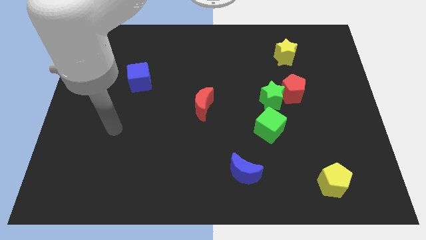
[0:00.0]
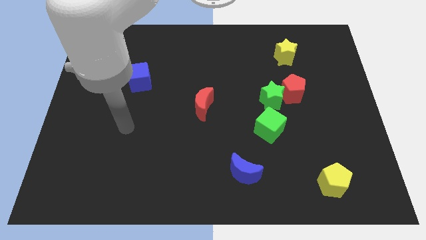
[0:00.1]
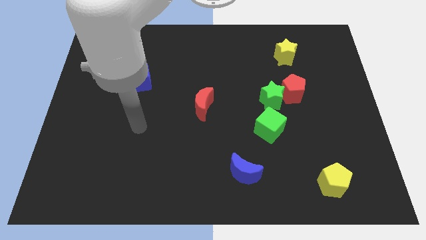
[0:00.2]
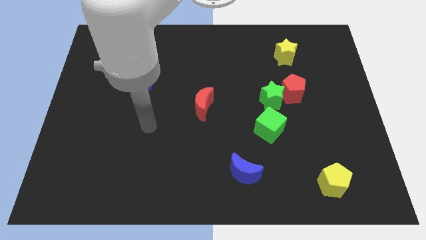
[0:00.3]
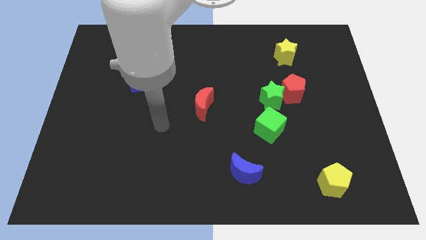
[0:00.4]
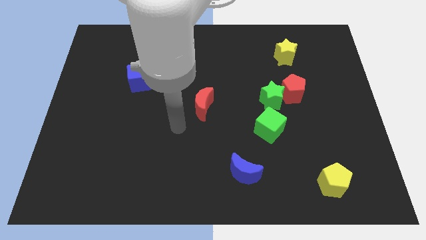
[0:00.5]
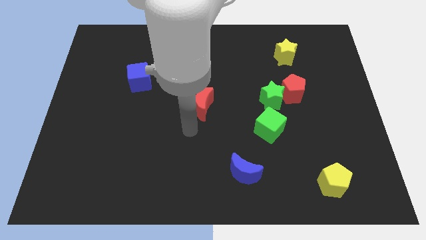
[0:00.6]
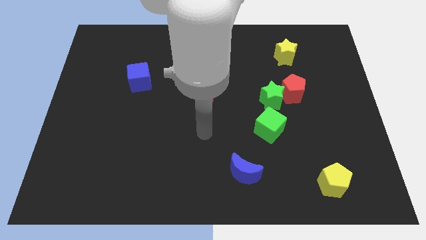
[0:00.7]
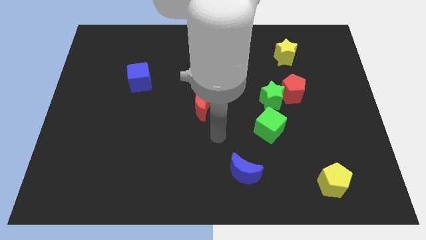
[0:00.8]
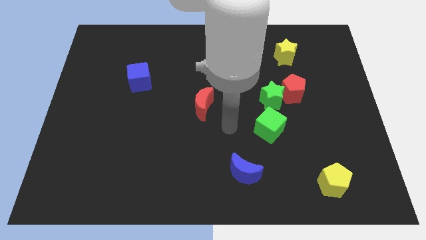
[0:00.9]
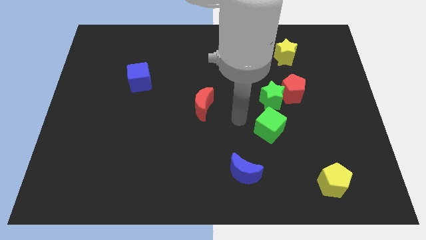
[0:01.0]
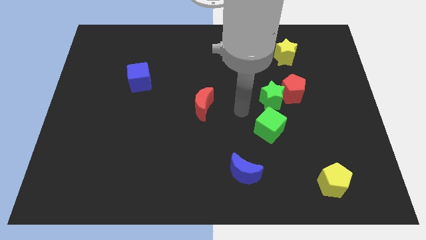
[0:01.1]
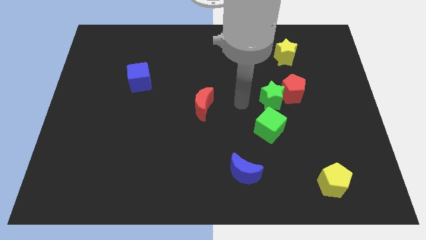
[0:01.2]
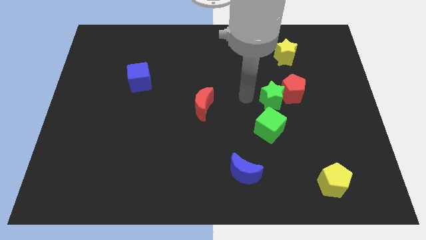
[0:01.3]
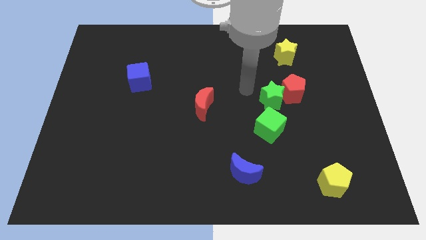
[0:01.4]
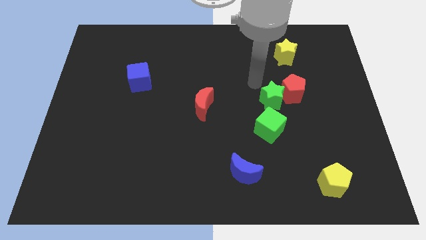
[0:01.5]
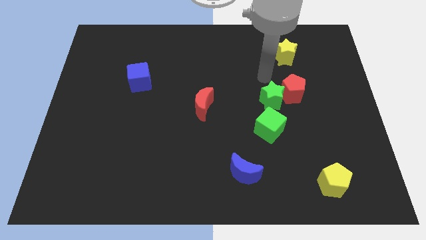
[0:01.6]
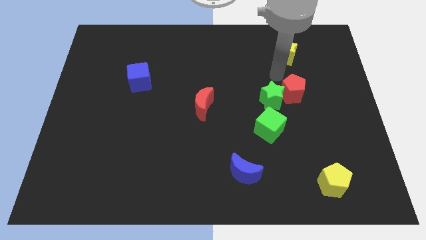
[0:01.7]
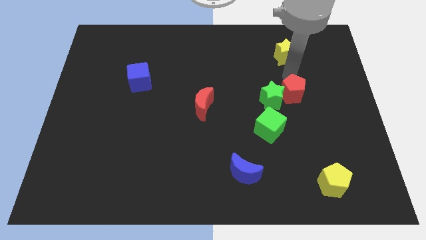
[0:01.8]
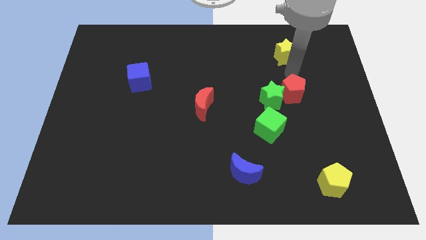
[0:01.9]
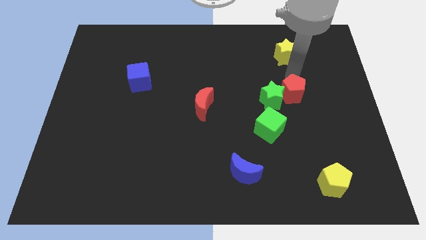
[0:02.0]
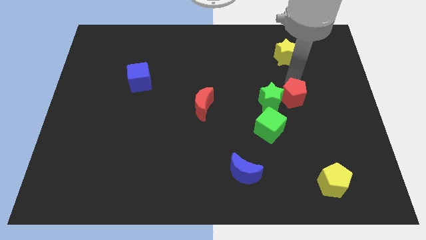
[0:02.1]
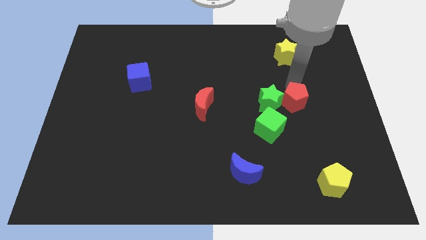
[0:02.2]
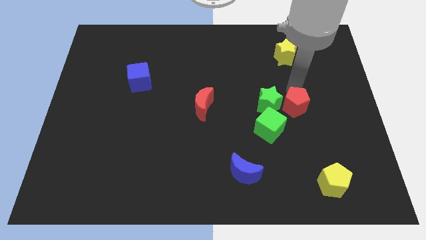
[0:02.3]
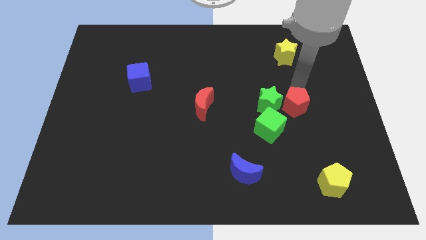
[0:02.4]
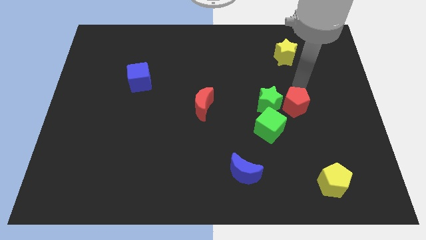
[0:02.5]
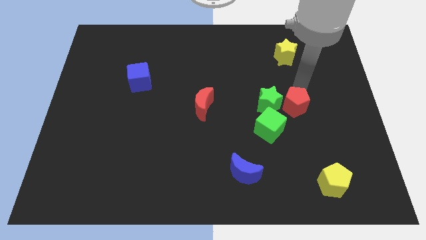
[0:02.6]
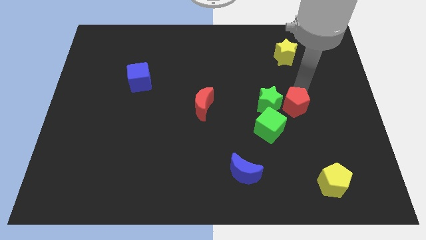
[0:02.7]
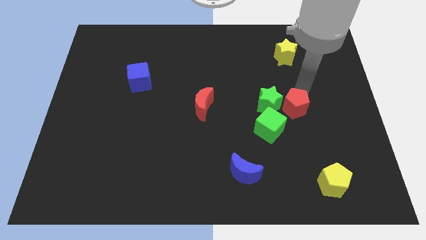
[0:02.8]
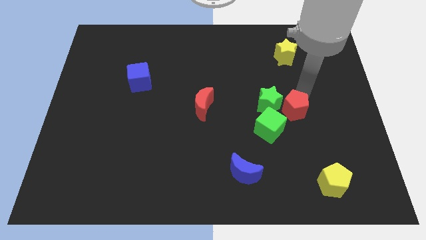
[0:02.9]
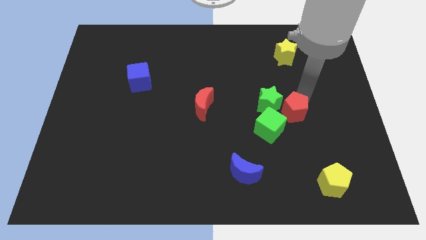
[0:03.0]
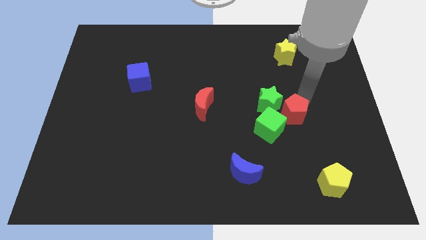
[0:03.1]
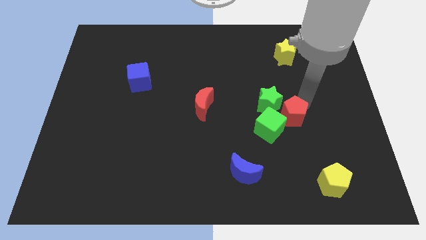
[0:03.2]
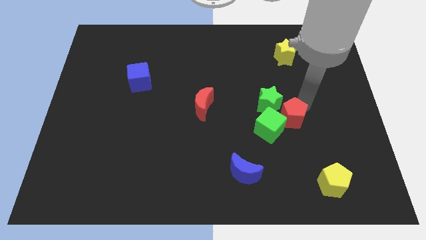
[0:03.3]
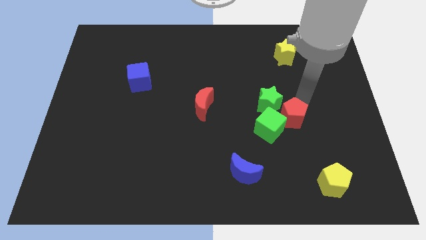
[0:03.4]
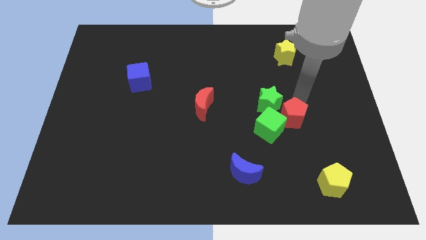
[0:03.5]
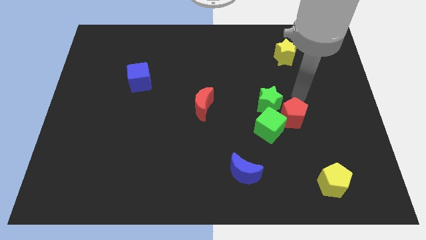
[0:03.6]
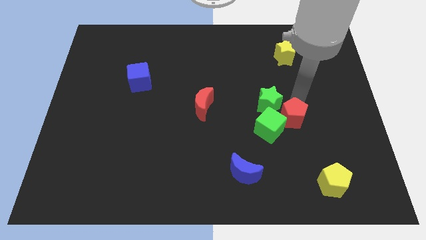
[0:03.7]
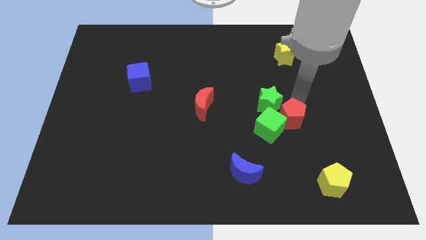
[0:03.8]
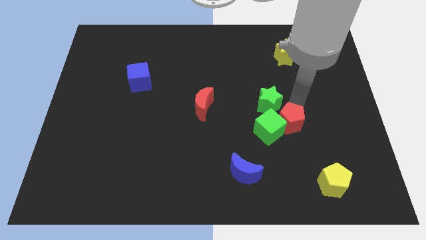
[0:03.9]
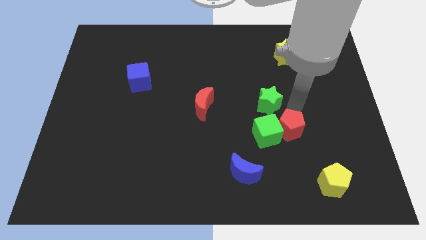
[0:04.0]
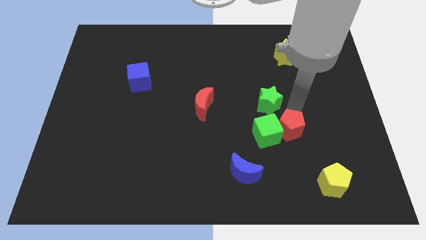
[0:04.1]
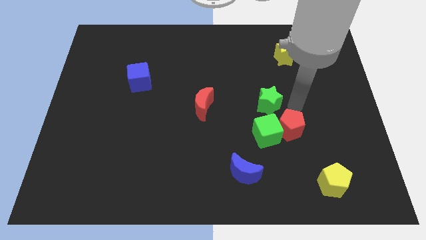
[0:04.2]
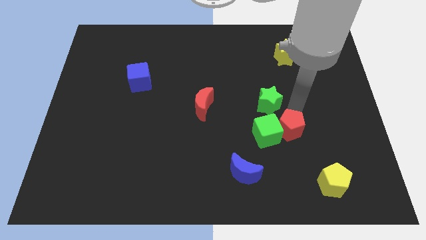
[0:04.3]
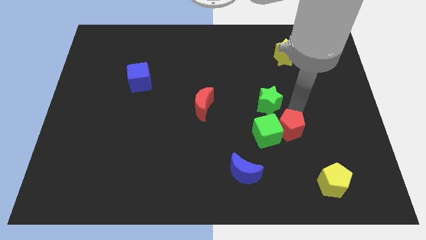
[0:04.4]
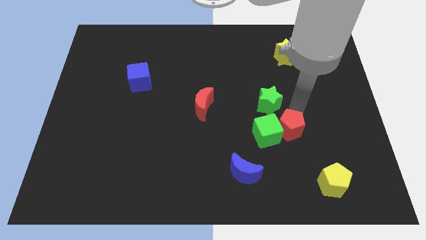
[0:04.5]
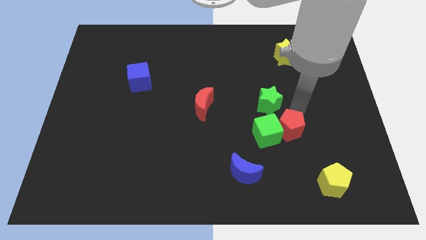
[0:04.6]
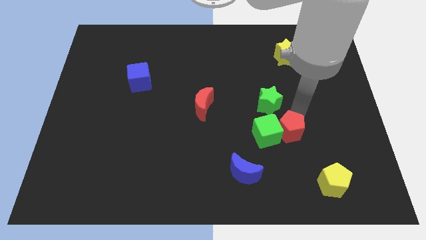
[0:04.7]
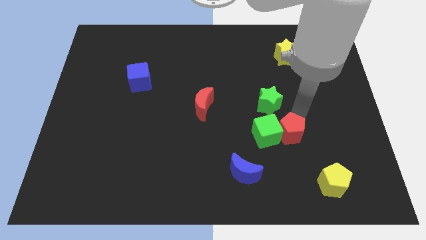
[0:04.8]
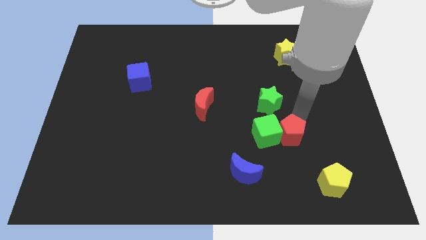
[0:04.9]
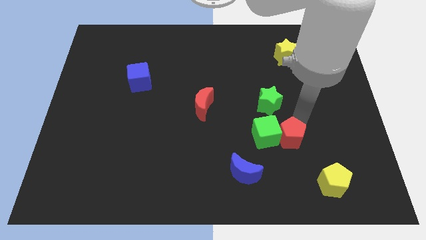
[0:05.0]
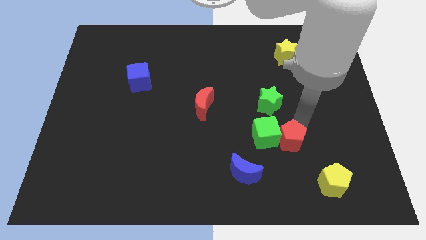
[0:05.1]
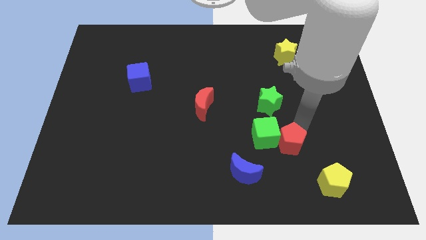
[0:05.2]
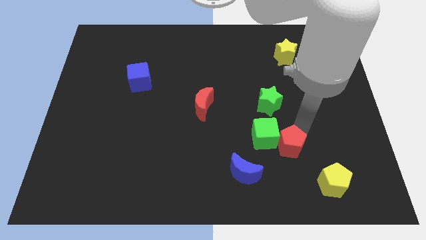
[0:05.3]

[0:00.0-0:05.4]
move the red pentagon to the top right of the blue moon

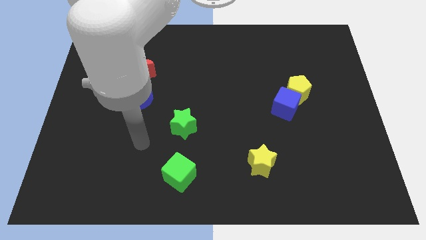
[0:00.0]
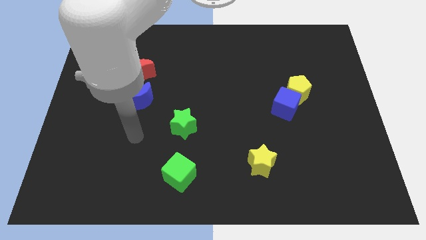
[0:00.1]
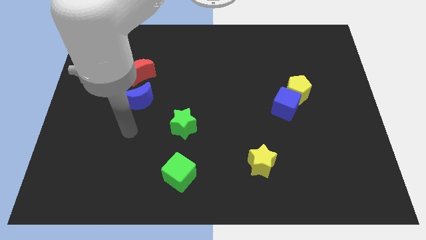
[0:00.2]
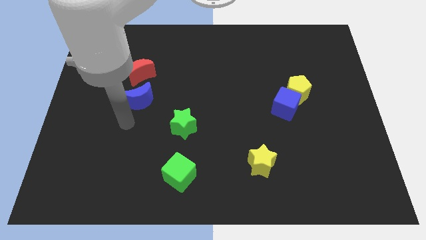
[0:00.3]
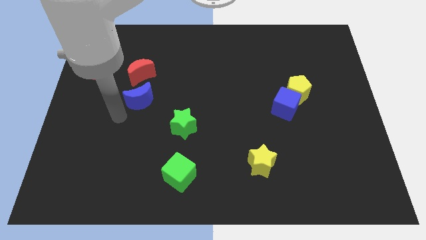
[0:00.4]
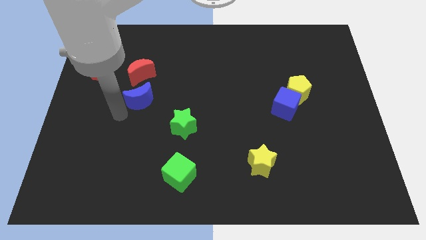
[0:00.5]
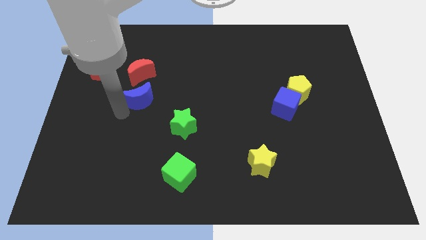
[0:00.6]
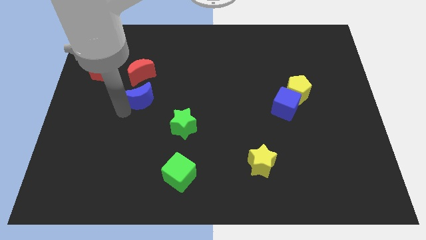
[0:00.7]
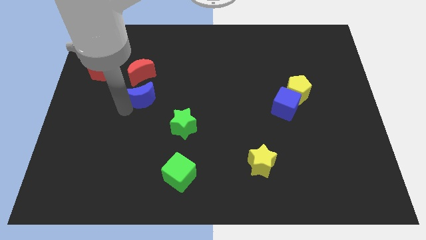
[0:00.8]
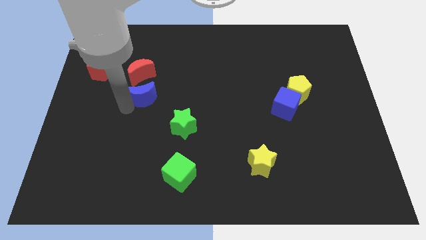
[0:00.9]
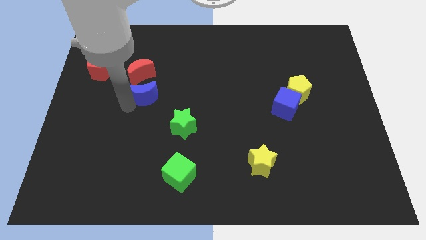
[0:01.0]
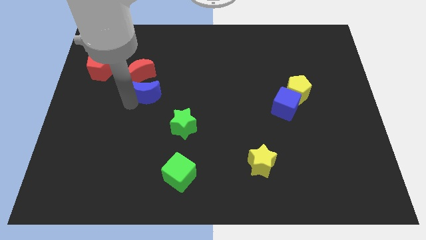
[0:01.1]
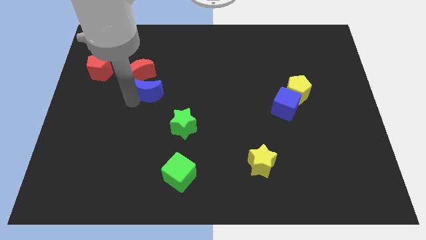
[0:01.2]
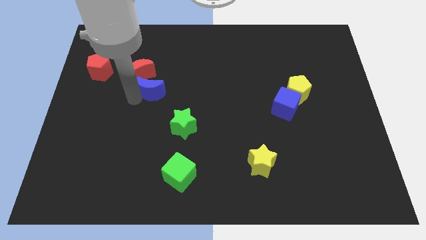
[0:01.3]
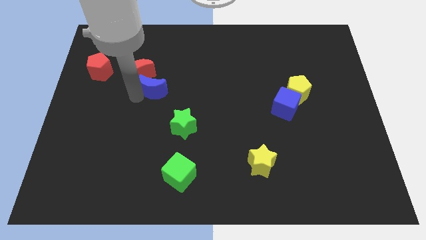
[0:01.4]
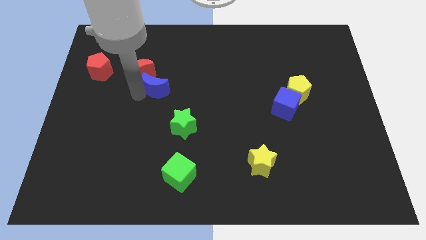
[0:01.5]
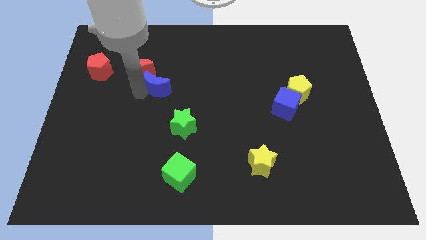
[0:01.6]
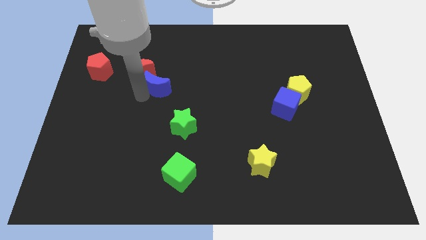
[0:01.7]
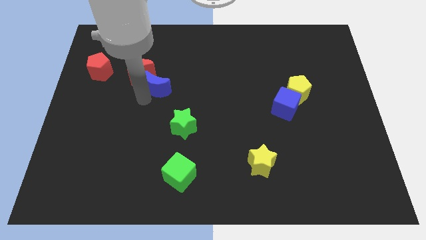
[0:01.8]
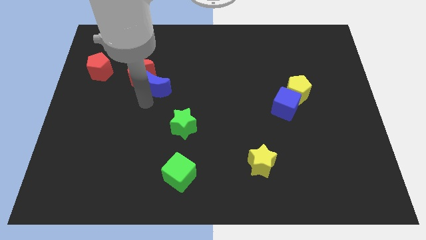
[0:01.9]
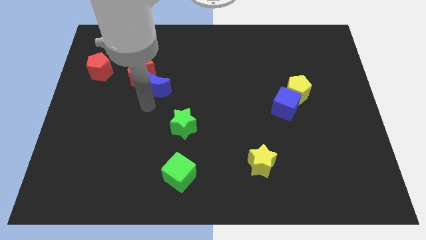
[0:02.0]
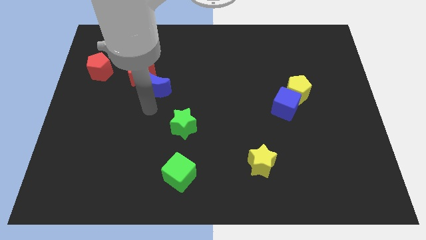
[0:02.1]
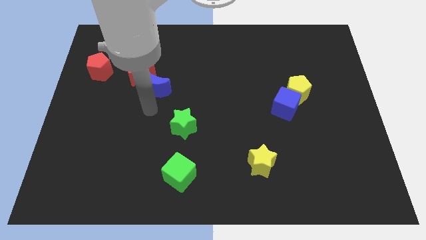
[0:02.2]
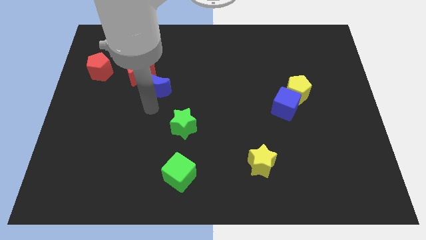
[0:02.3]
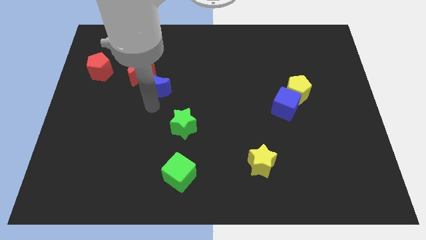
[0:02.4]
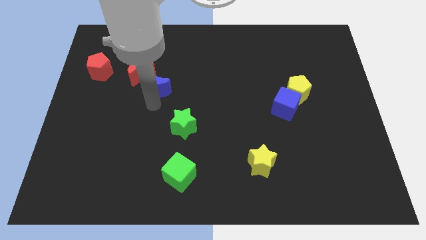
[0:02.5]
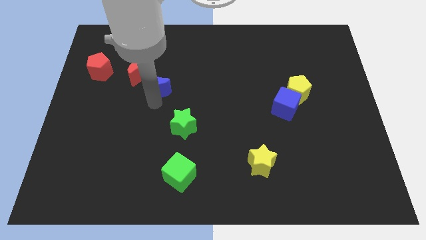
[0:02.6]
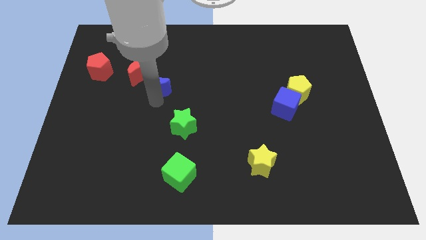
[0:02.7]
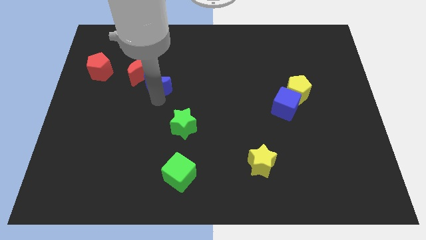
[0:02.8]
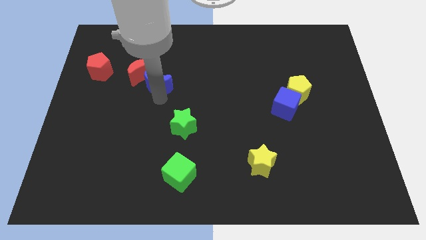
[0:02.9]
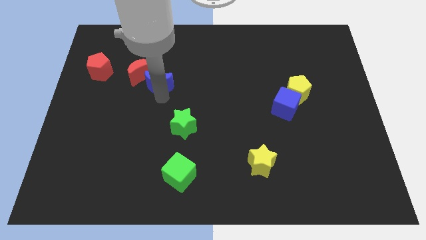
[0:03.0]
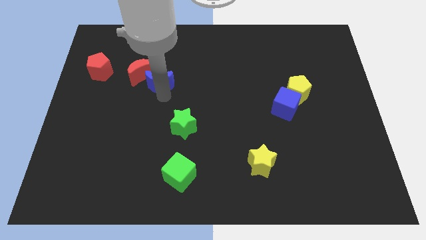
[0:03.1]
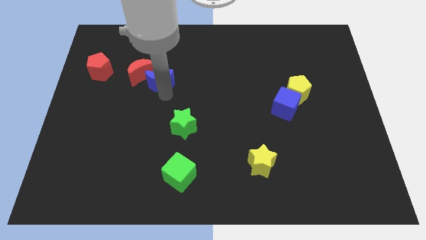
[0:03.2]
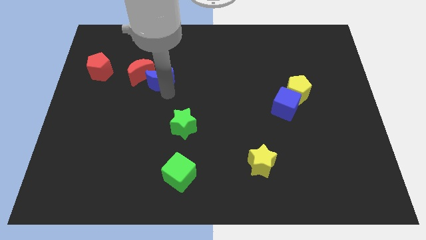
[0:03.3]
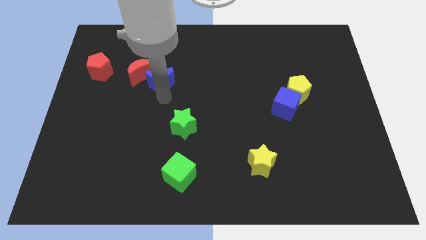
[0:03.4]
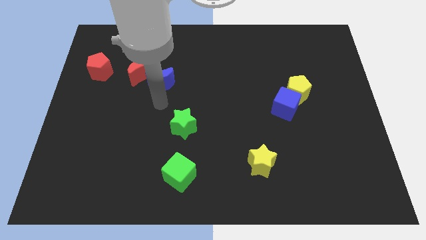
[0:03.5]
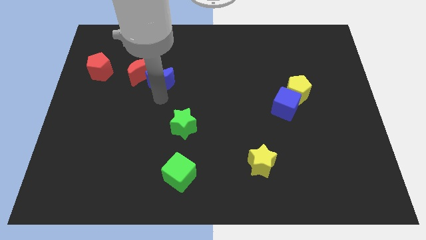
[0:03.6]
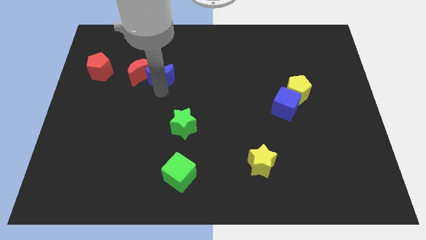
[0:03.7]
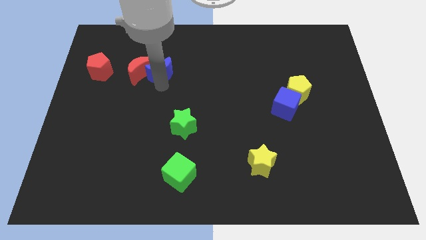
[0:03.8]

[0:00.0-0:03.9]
move the blue moon to the top right of the red moon
